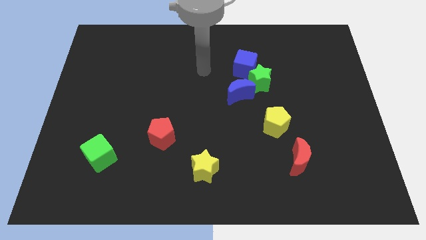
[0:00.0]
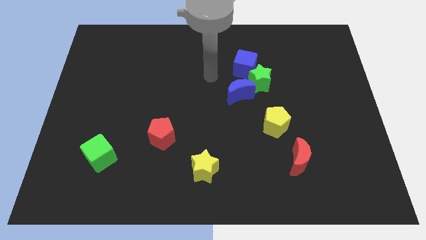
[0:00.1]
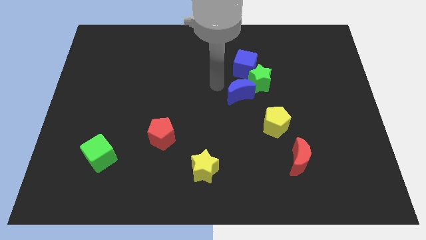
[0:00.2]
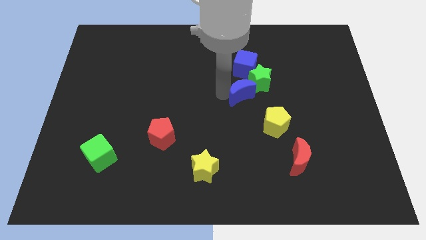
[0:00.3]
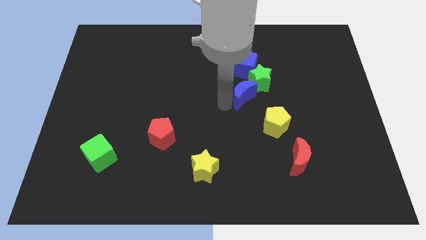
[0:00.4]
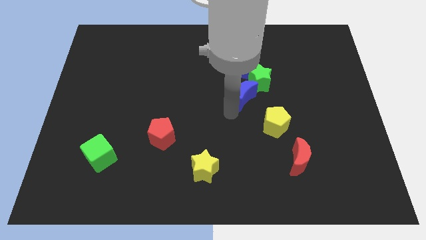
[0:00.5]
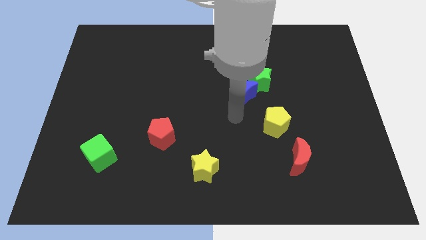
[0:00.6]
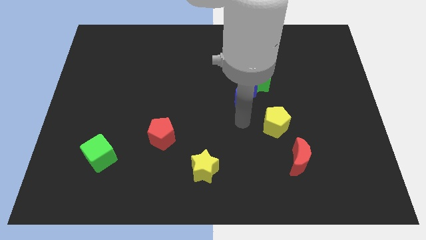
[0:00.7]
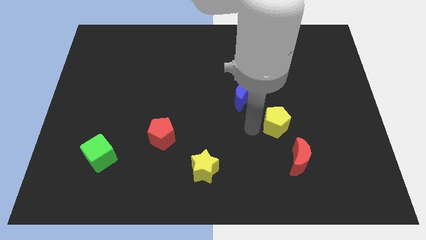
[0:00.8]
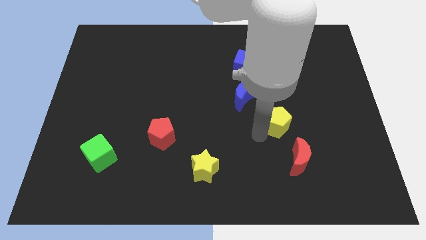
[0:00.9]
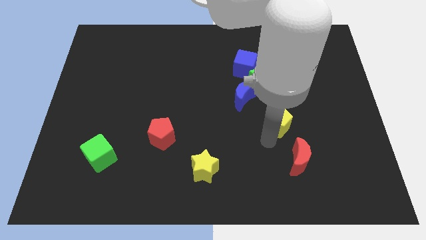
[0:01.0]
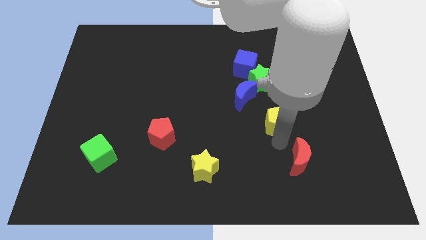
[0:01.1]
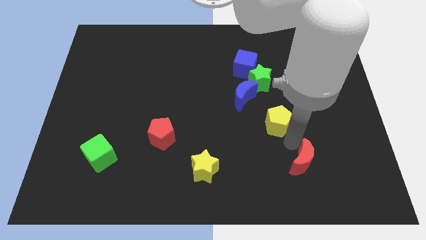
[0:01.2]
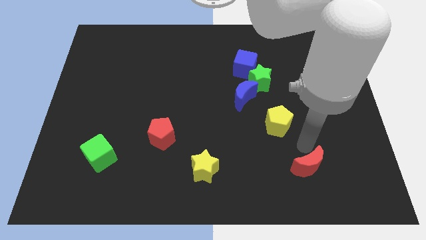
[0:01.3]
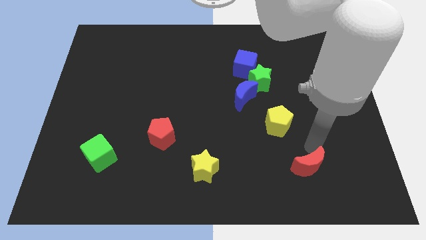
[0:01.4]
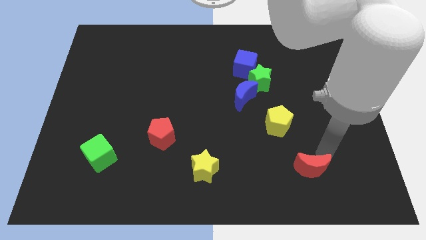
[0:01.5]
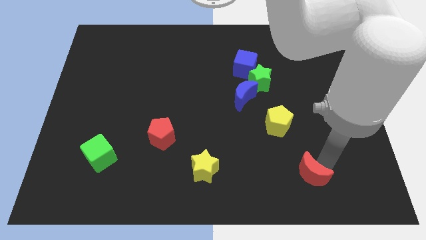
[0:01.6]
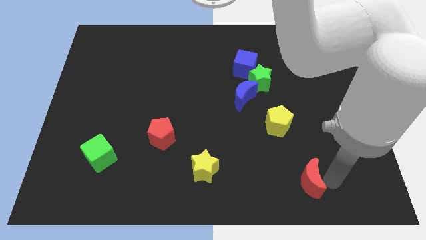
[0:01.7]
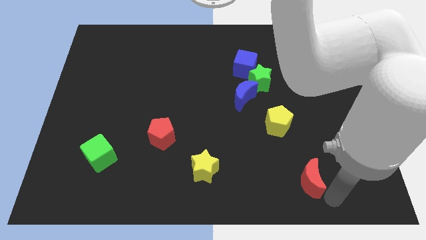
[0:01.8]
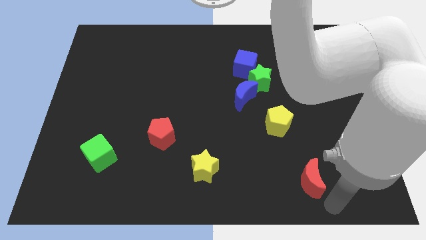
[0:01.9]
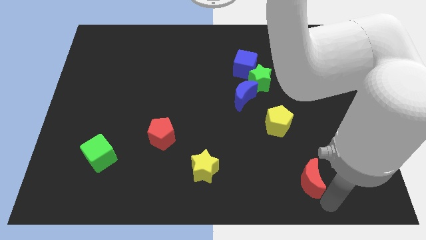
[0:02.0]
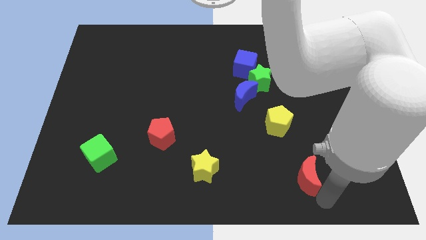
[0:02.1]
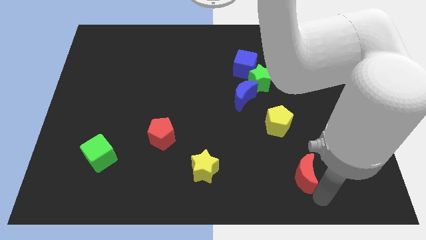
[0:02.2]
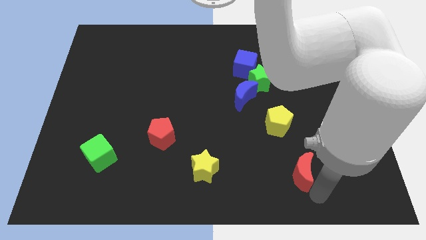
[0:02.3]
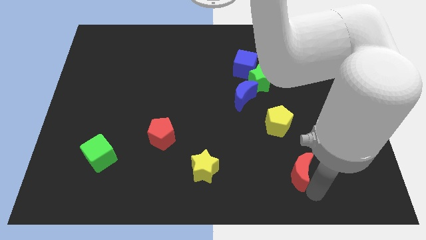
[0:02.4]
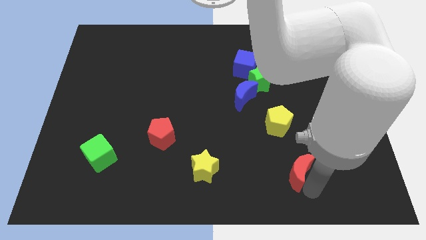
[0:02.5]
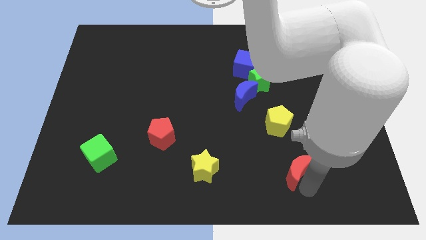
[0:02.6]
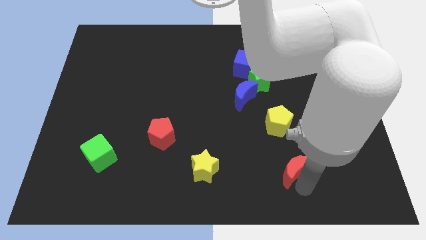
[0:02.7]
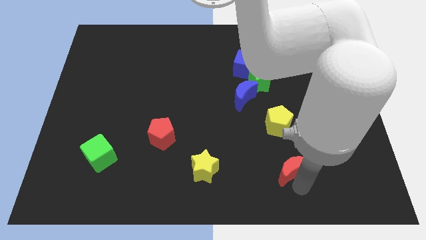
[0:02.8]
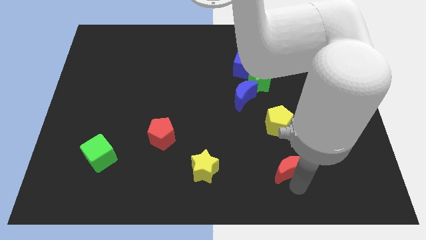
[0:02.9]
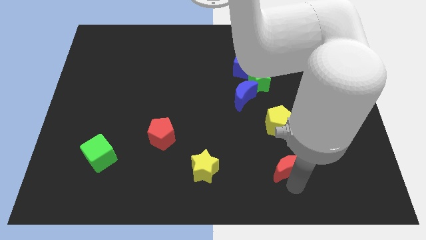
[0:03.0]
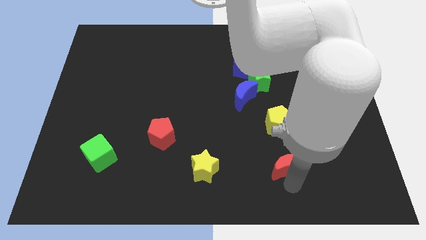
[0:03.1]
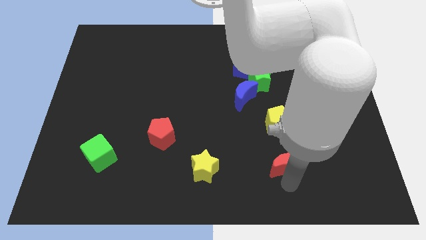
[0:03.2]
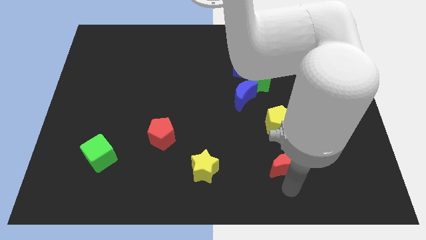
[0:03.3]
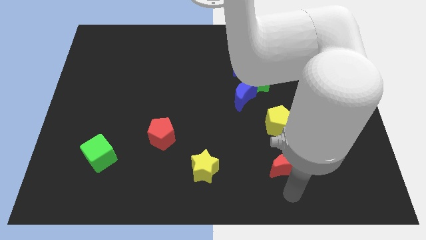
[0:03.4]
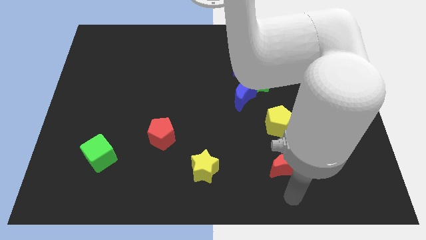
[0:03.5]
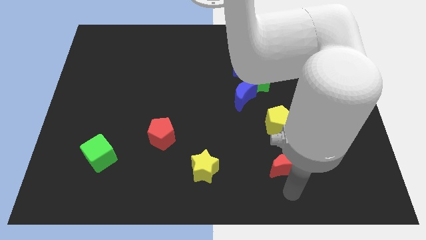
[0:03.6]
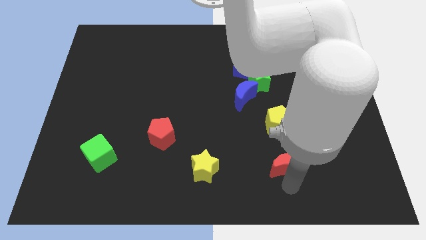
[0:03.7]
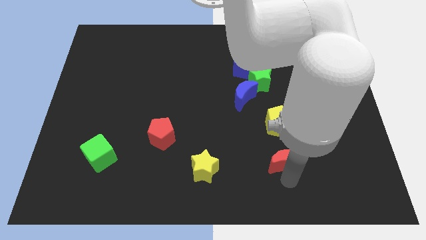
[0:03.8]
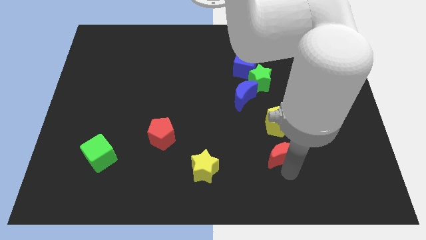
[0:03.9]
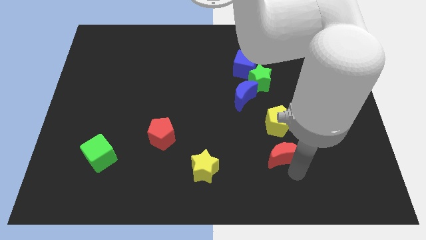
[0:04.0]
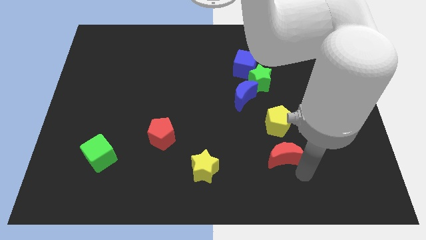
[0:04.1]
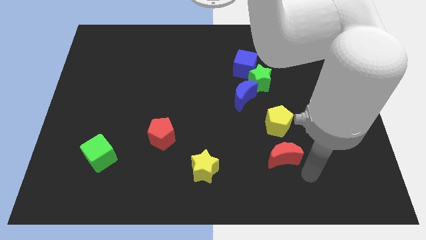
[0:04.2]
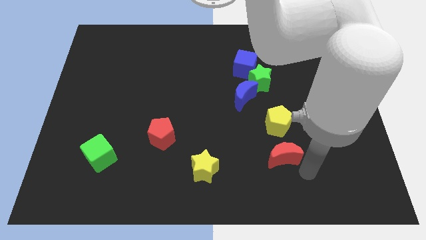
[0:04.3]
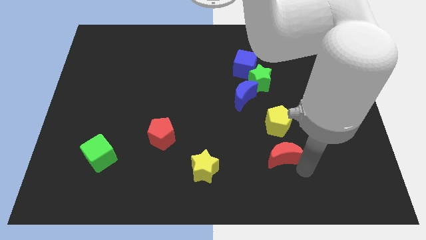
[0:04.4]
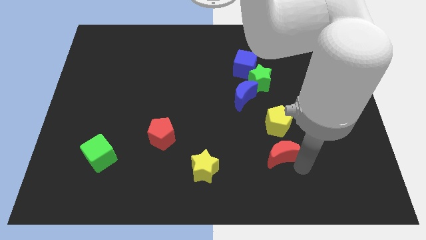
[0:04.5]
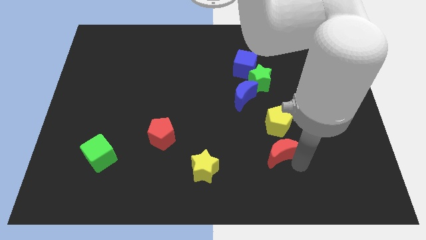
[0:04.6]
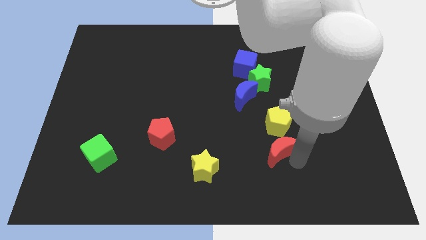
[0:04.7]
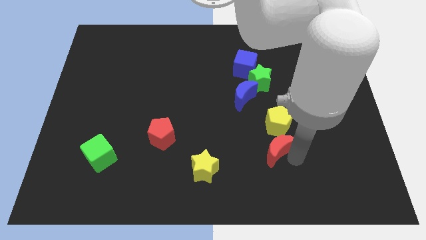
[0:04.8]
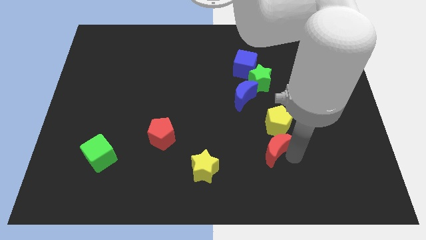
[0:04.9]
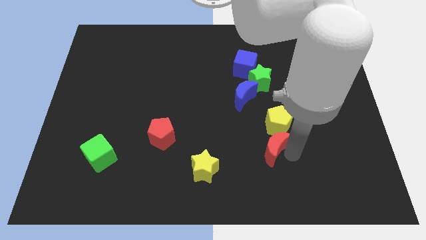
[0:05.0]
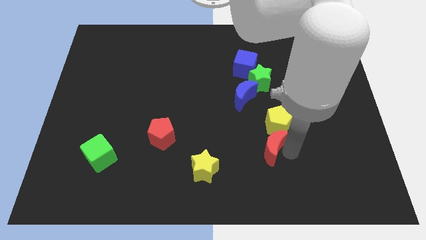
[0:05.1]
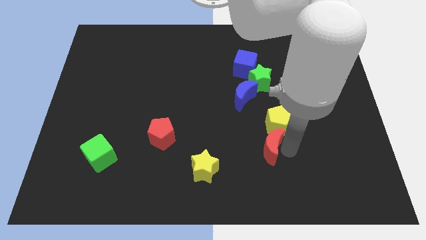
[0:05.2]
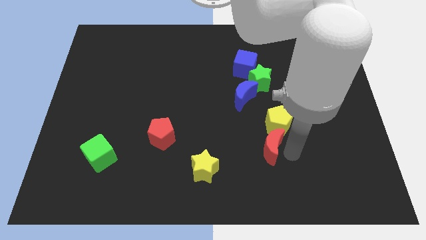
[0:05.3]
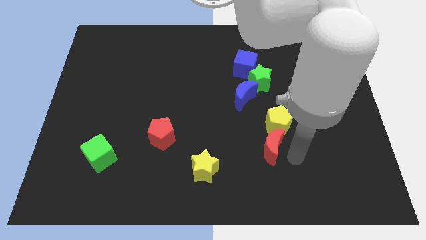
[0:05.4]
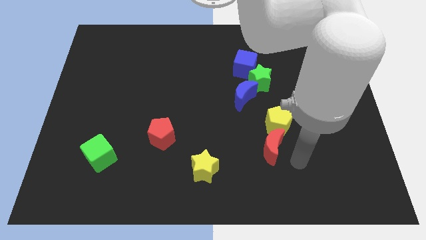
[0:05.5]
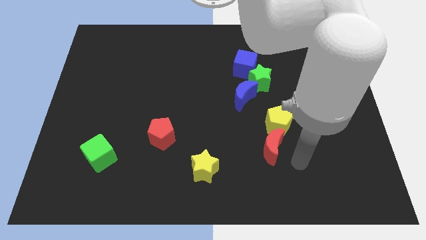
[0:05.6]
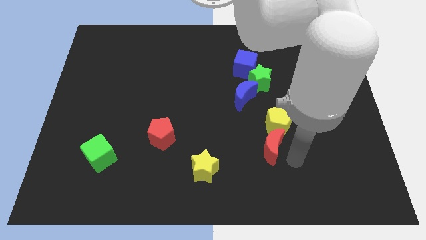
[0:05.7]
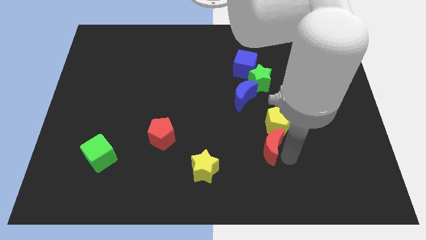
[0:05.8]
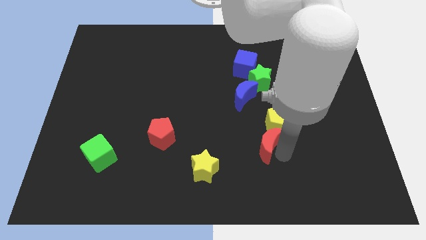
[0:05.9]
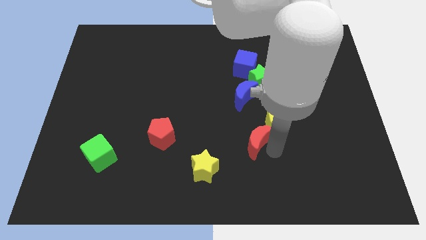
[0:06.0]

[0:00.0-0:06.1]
put the red moon left of the yellow pentagon

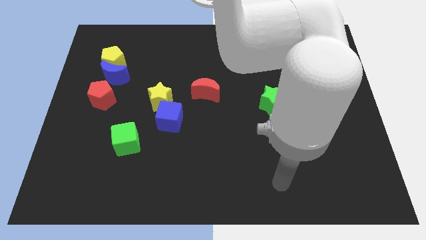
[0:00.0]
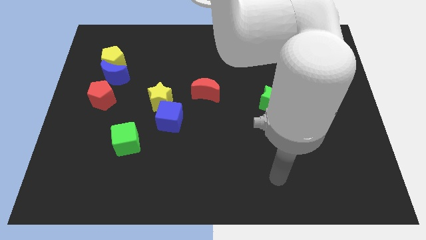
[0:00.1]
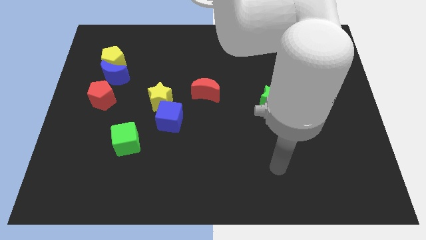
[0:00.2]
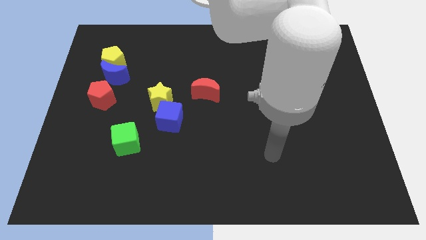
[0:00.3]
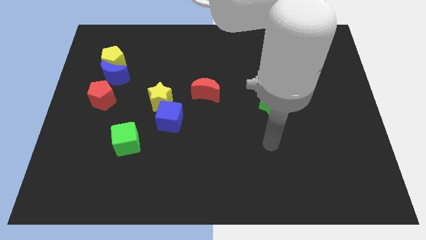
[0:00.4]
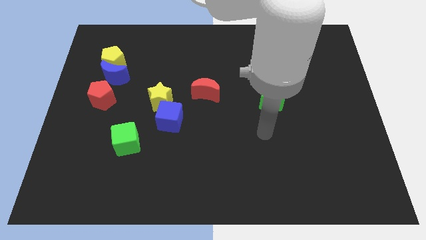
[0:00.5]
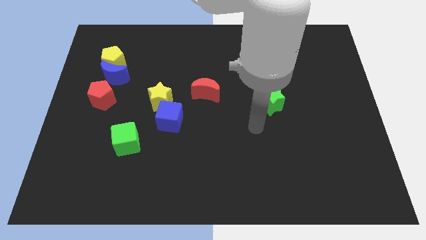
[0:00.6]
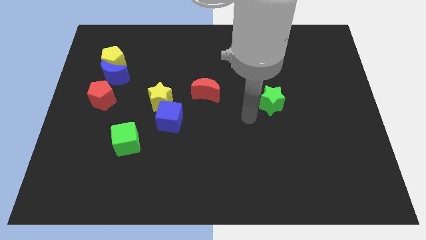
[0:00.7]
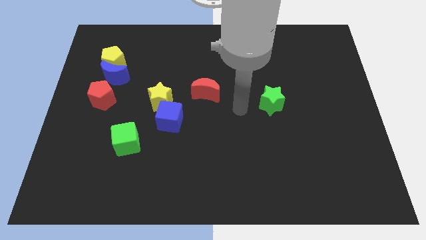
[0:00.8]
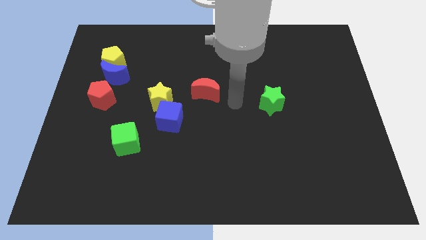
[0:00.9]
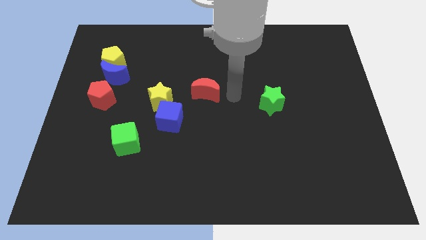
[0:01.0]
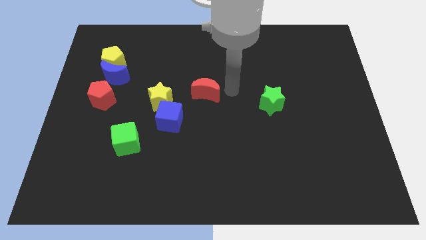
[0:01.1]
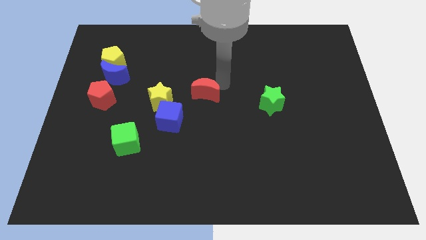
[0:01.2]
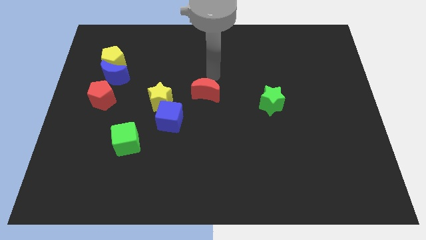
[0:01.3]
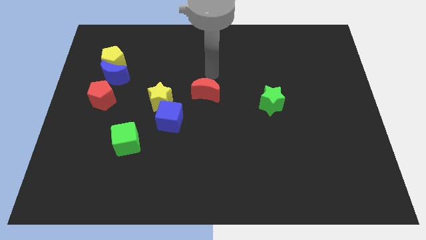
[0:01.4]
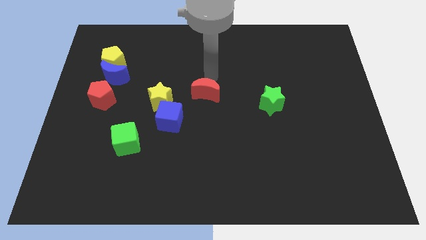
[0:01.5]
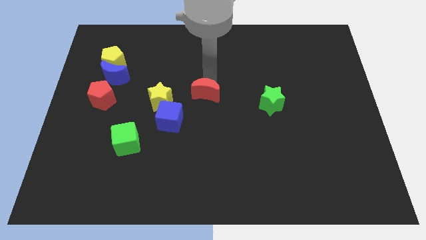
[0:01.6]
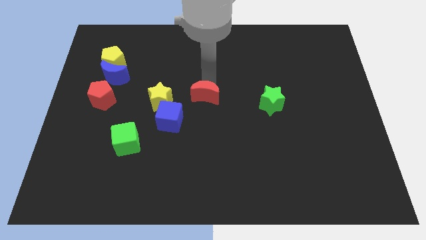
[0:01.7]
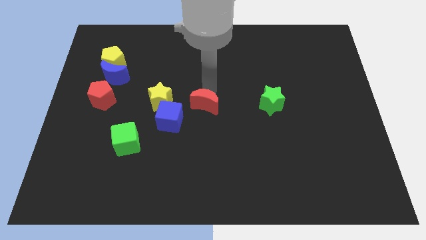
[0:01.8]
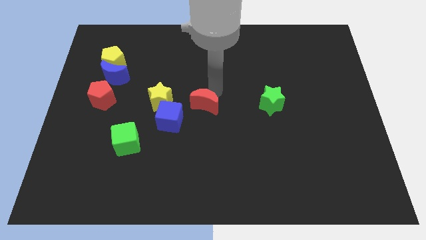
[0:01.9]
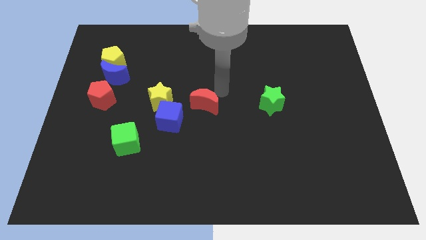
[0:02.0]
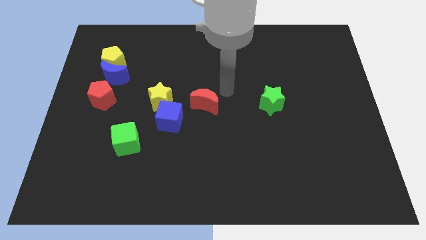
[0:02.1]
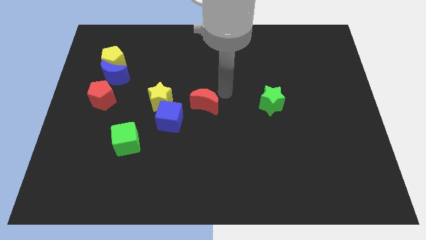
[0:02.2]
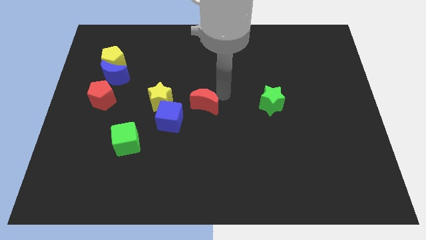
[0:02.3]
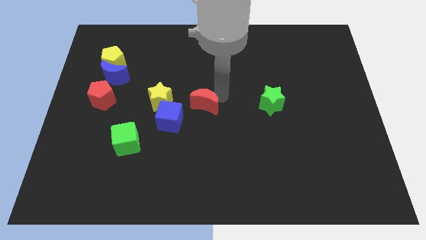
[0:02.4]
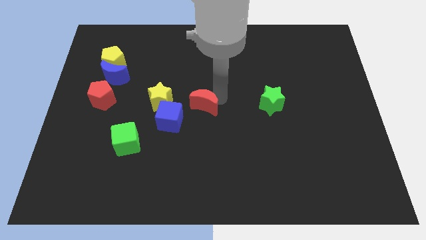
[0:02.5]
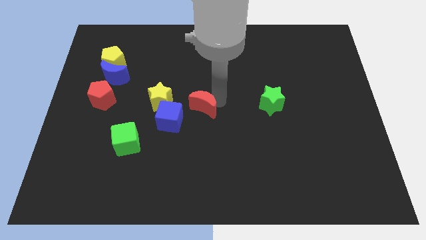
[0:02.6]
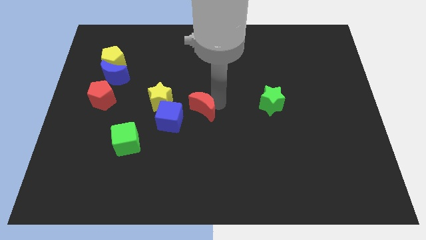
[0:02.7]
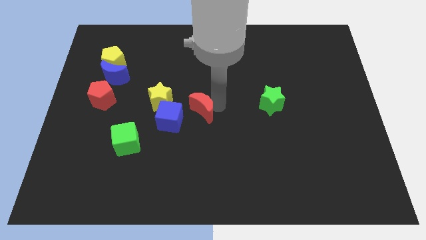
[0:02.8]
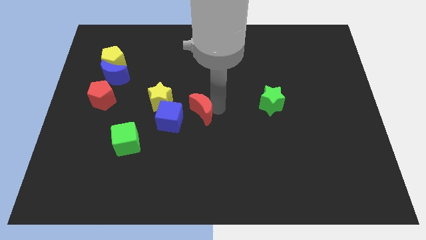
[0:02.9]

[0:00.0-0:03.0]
move the red moon diagonally down and to the right of the yellow star
